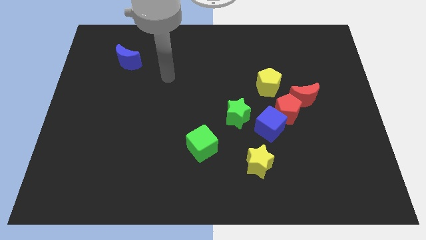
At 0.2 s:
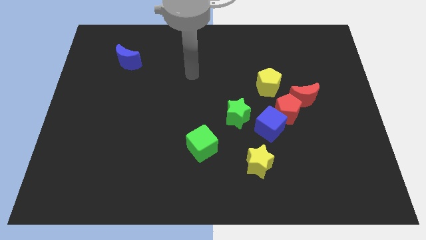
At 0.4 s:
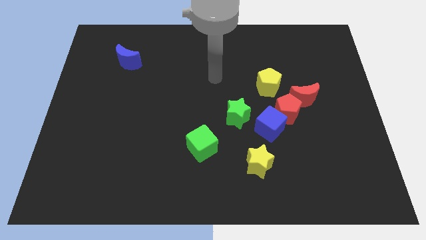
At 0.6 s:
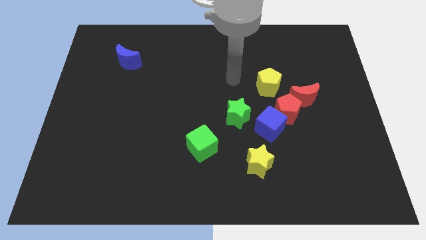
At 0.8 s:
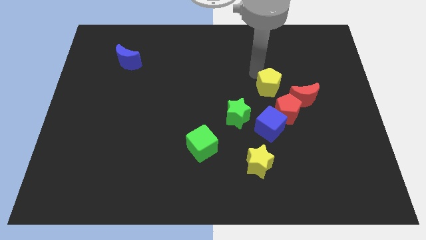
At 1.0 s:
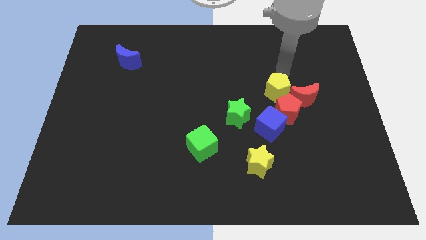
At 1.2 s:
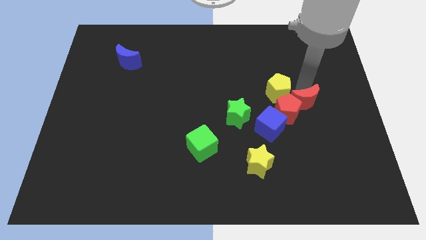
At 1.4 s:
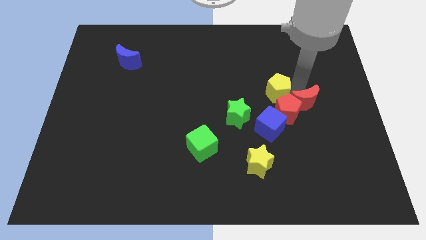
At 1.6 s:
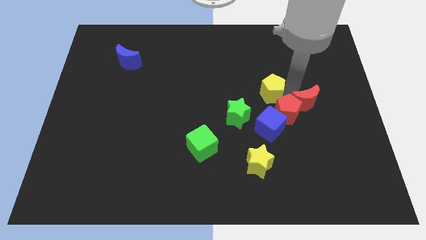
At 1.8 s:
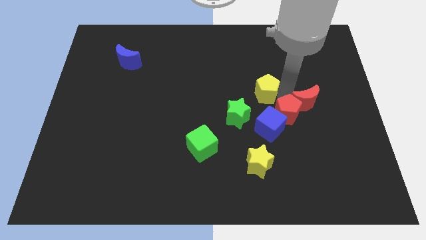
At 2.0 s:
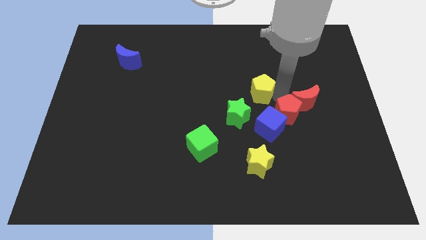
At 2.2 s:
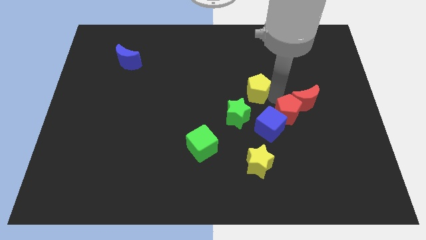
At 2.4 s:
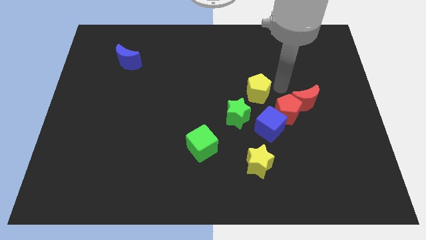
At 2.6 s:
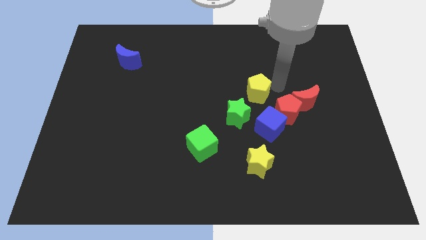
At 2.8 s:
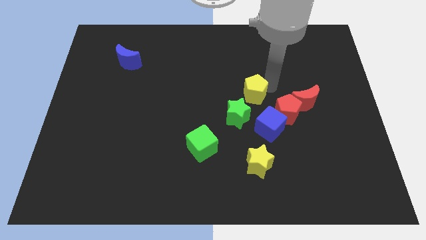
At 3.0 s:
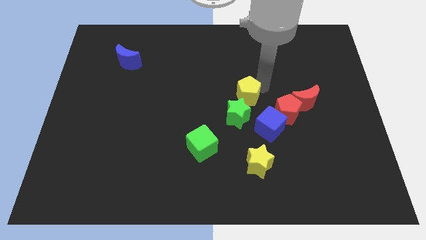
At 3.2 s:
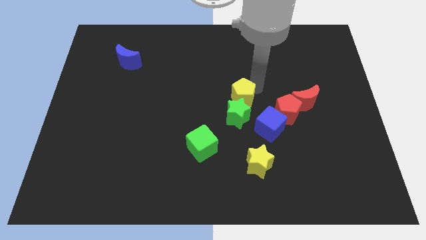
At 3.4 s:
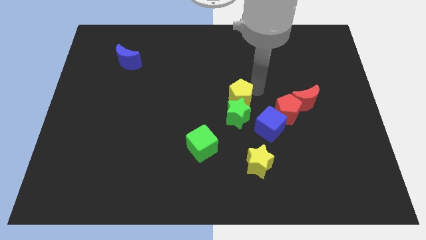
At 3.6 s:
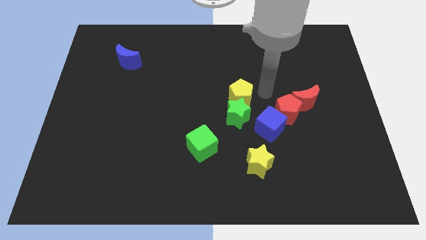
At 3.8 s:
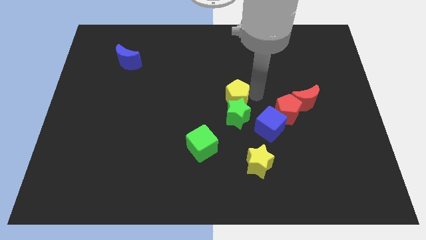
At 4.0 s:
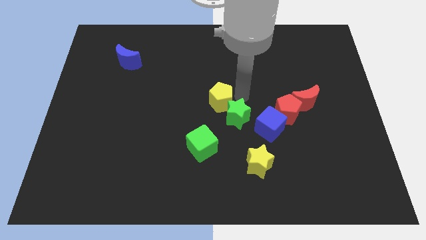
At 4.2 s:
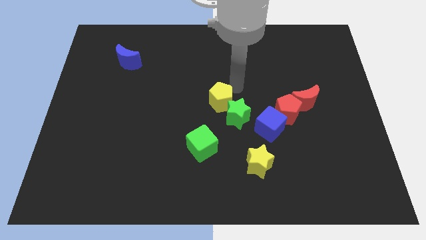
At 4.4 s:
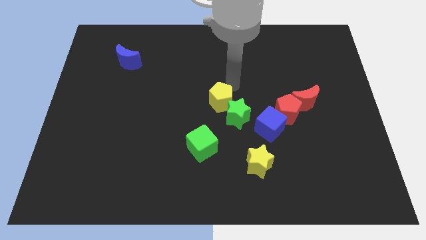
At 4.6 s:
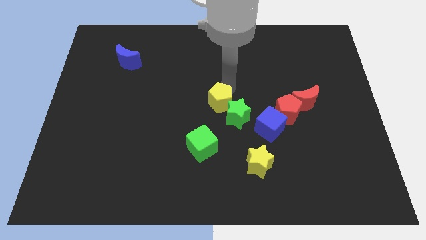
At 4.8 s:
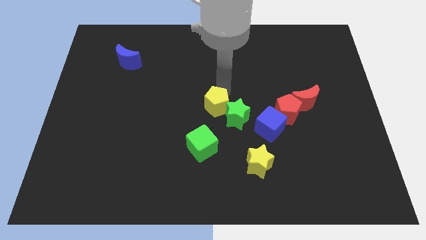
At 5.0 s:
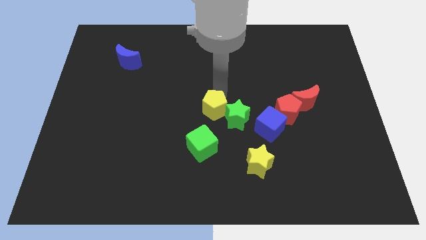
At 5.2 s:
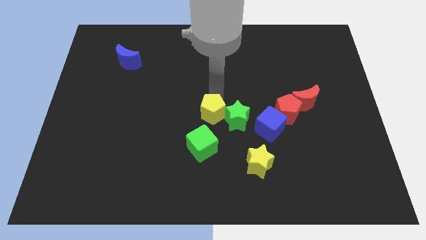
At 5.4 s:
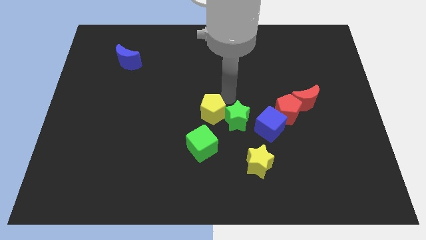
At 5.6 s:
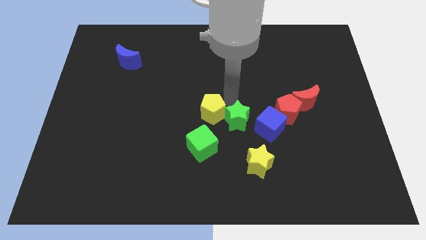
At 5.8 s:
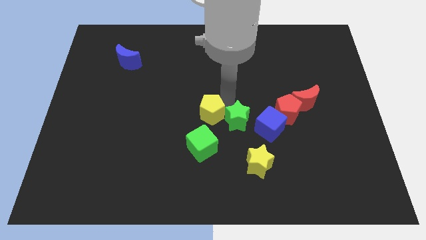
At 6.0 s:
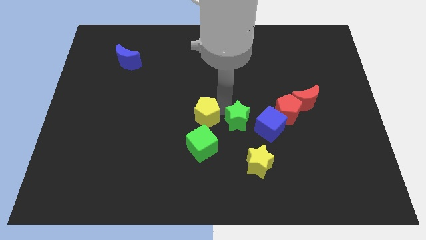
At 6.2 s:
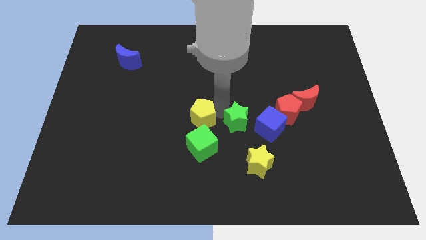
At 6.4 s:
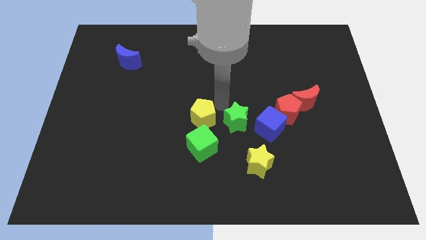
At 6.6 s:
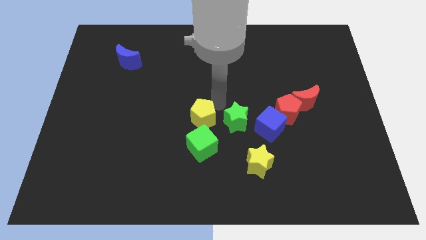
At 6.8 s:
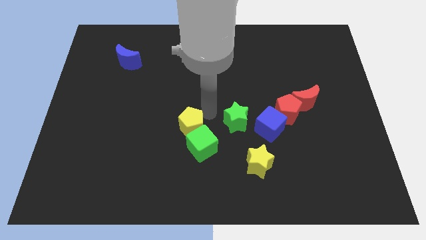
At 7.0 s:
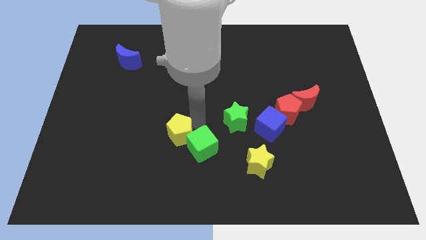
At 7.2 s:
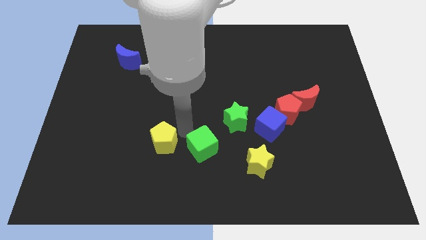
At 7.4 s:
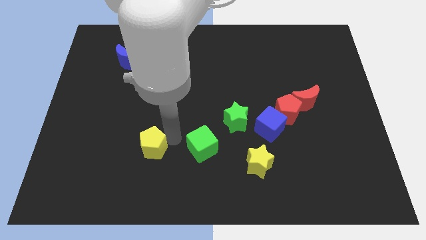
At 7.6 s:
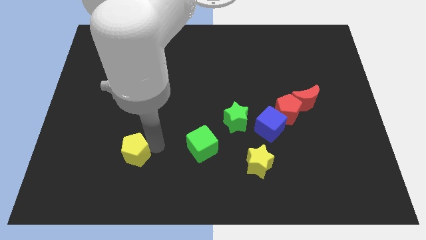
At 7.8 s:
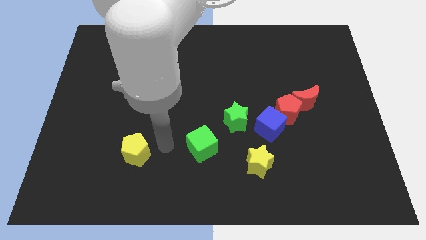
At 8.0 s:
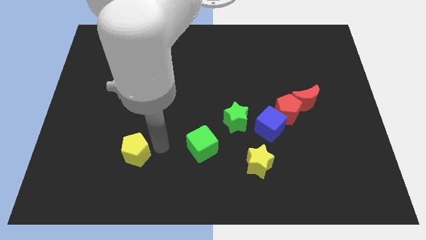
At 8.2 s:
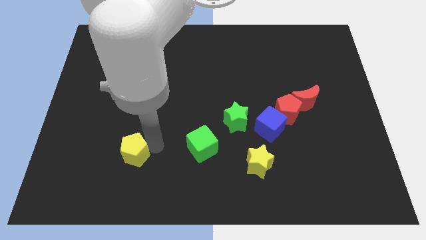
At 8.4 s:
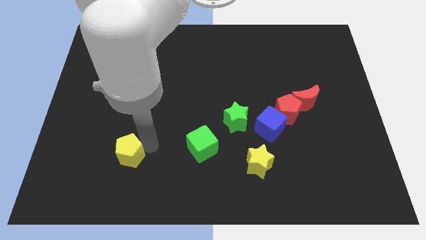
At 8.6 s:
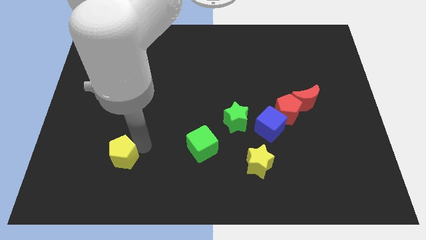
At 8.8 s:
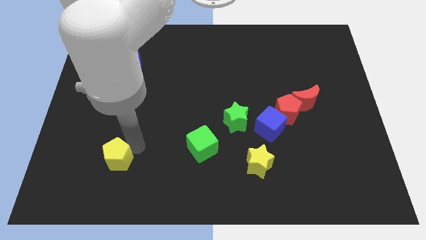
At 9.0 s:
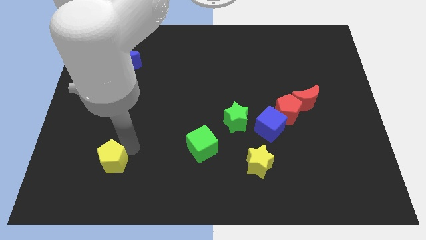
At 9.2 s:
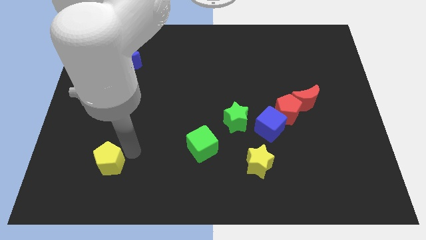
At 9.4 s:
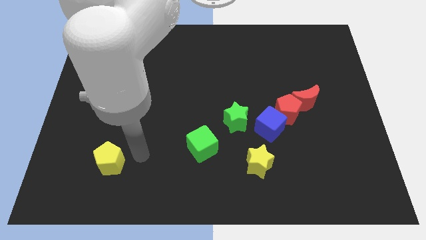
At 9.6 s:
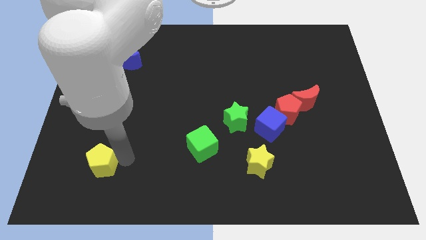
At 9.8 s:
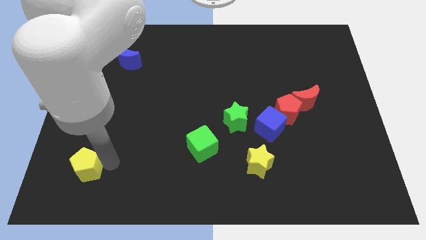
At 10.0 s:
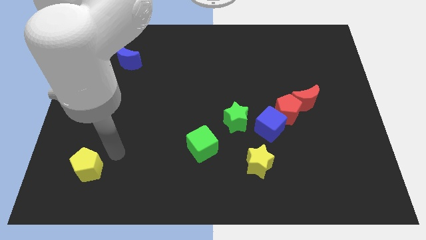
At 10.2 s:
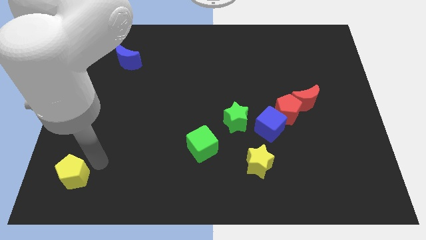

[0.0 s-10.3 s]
slide the yellow pentagon to the lower left corner

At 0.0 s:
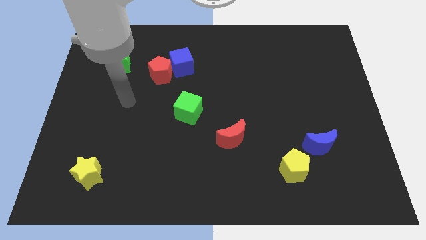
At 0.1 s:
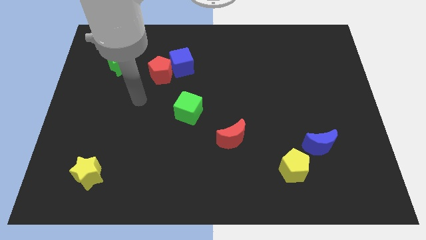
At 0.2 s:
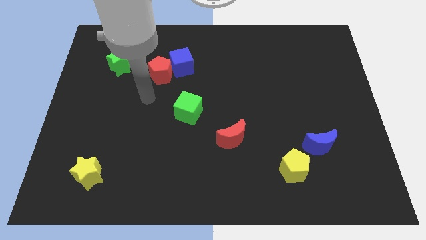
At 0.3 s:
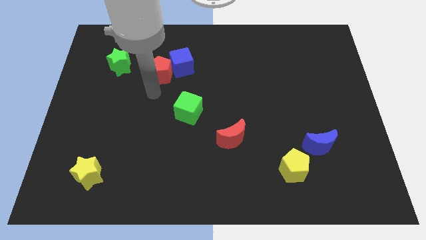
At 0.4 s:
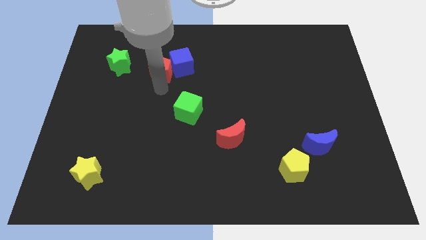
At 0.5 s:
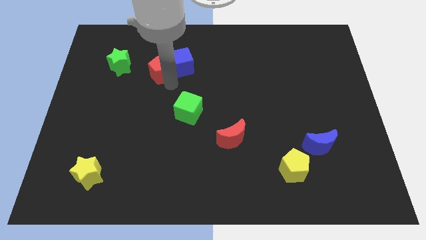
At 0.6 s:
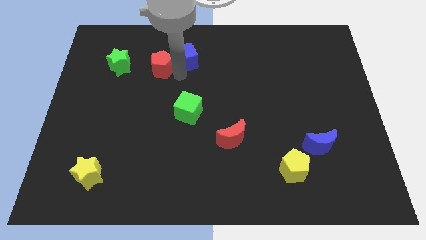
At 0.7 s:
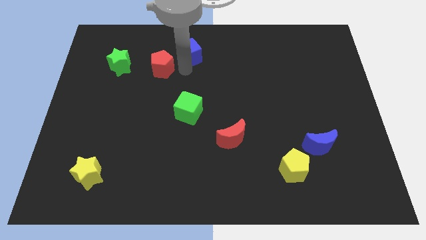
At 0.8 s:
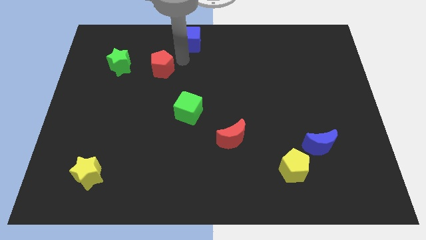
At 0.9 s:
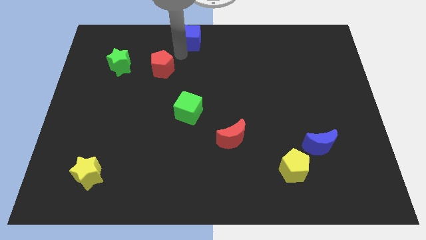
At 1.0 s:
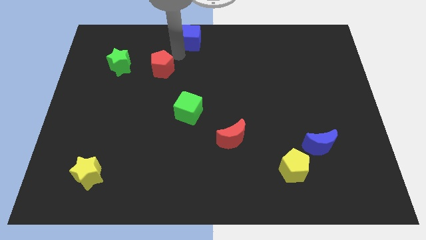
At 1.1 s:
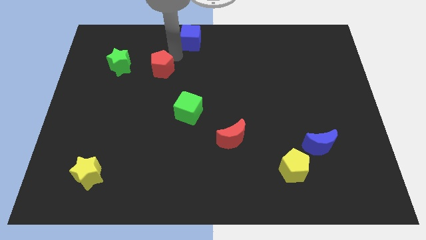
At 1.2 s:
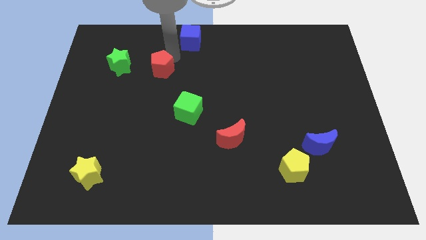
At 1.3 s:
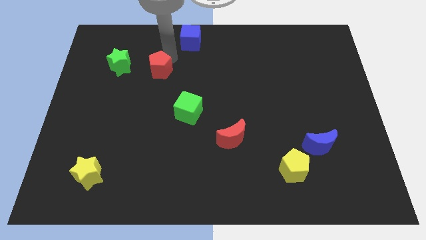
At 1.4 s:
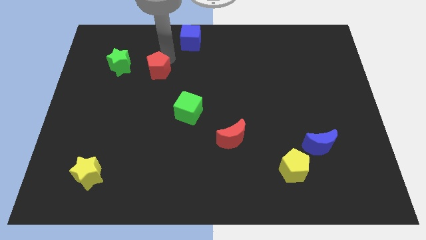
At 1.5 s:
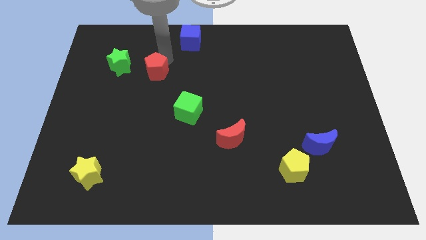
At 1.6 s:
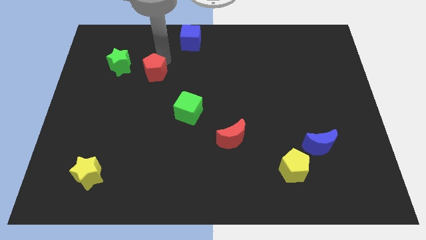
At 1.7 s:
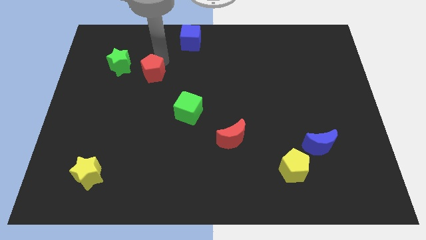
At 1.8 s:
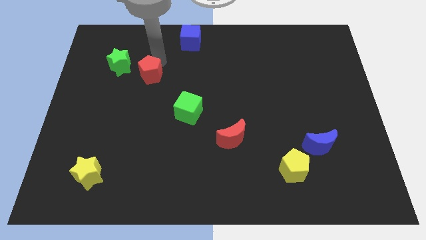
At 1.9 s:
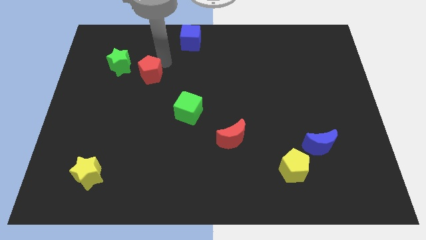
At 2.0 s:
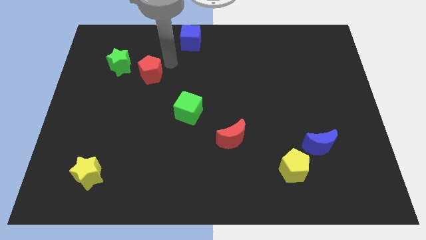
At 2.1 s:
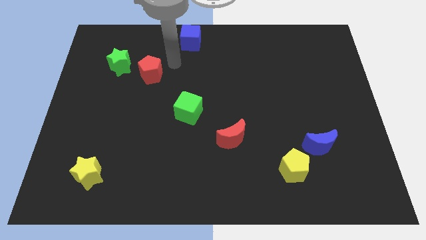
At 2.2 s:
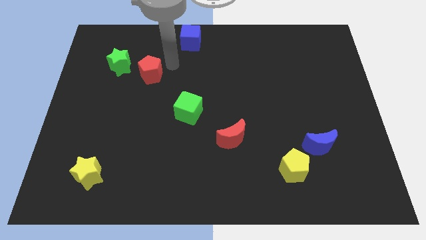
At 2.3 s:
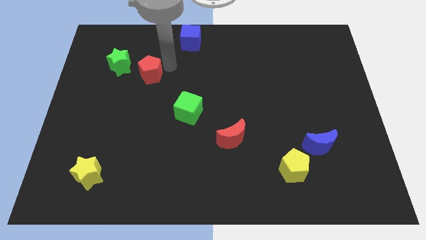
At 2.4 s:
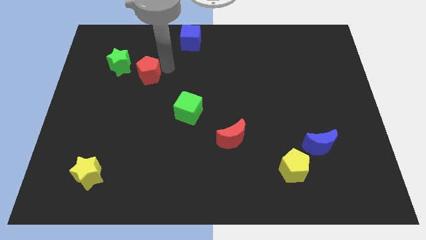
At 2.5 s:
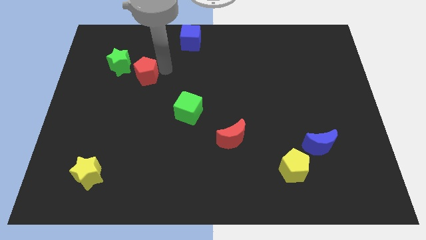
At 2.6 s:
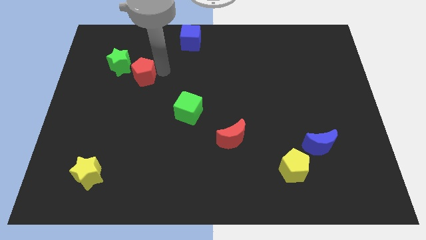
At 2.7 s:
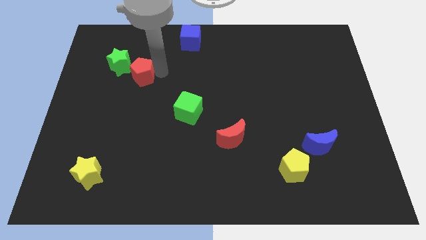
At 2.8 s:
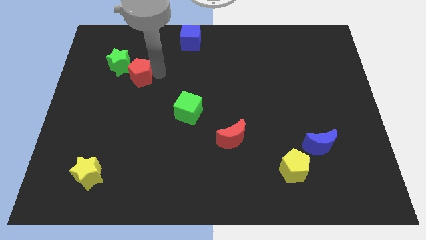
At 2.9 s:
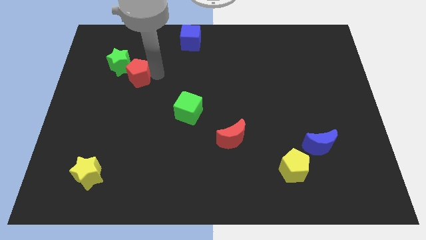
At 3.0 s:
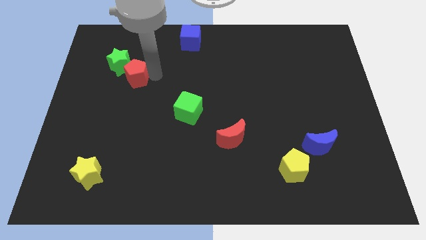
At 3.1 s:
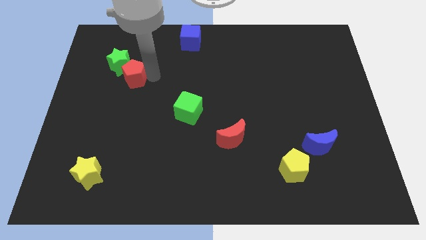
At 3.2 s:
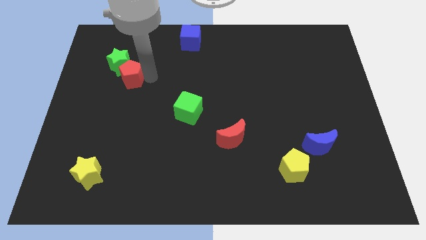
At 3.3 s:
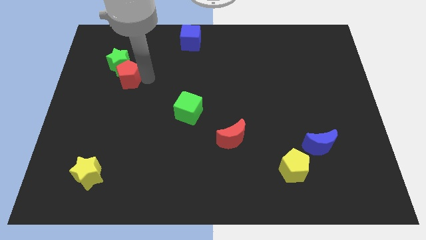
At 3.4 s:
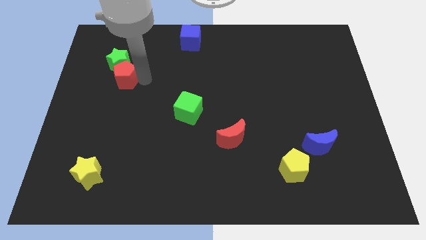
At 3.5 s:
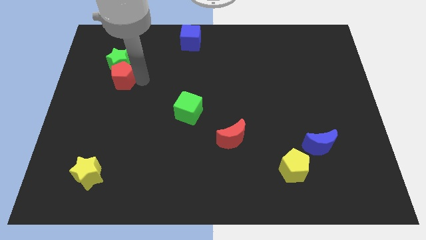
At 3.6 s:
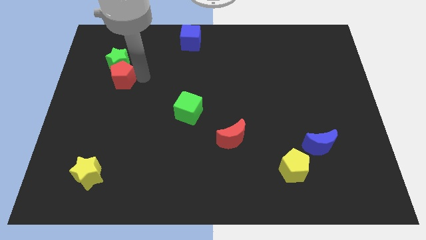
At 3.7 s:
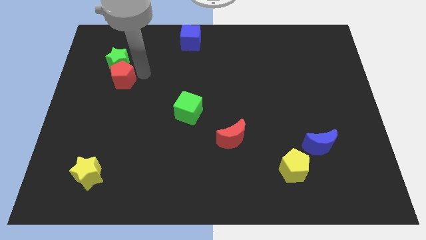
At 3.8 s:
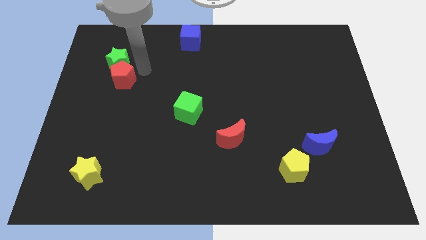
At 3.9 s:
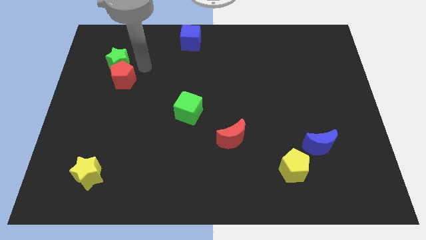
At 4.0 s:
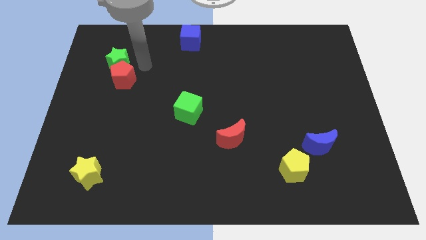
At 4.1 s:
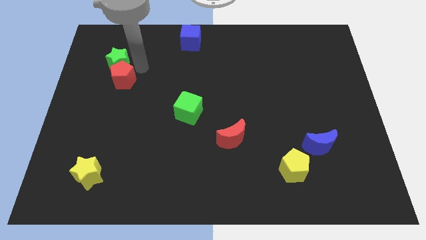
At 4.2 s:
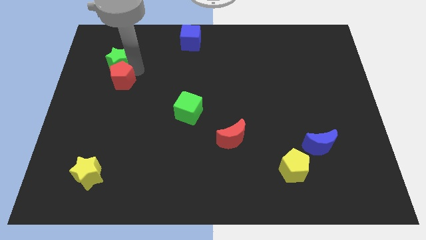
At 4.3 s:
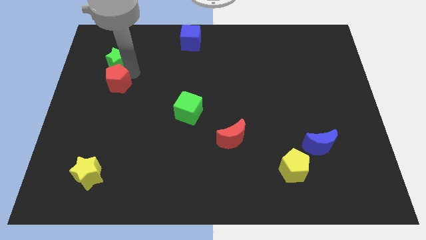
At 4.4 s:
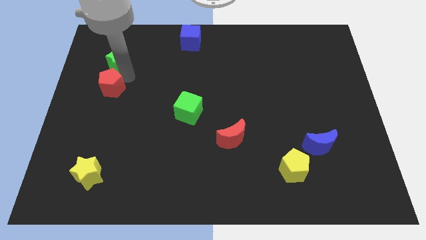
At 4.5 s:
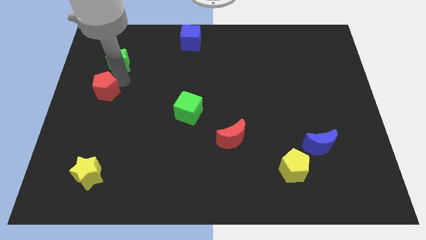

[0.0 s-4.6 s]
put the red pentagon to the center left
